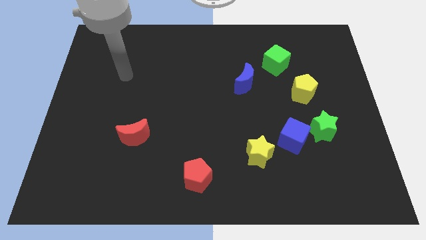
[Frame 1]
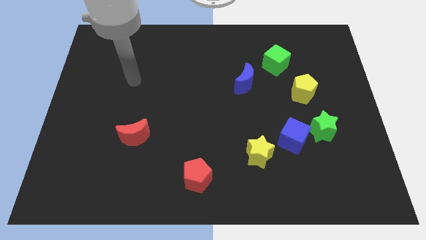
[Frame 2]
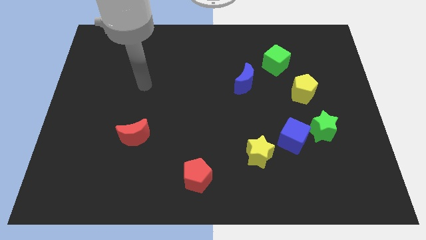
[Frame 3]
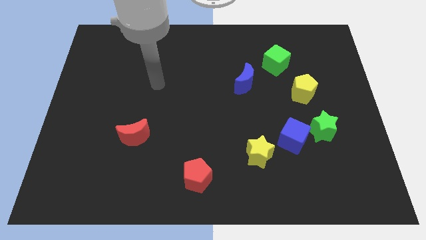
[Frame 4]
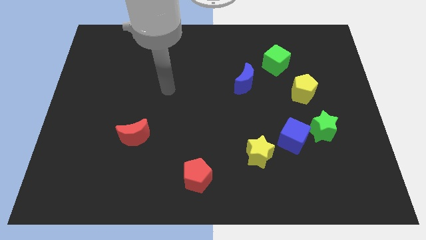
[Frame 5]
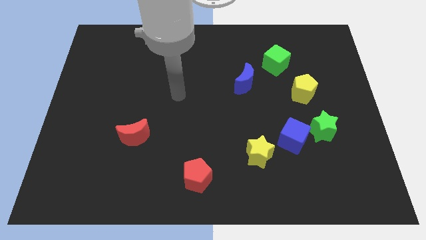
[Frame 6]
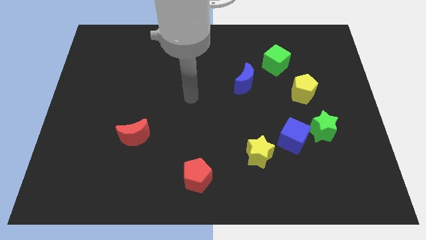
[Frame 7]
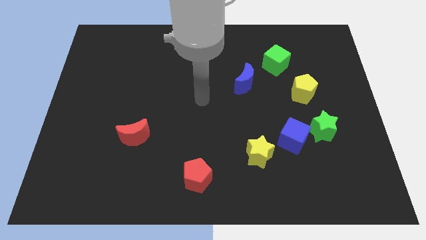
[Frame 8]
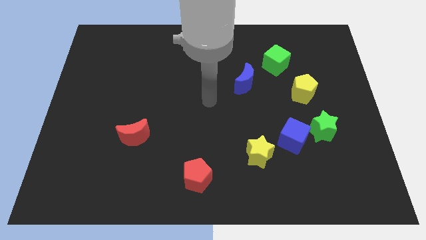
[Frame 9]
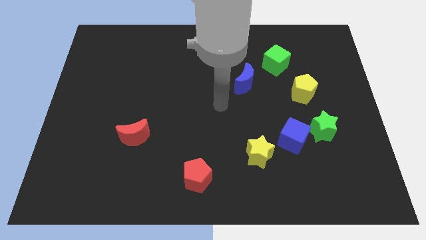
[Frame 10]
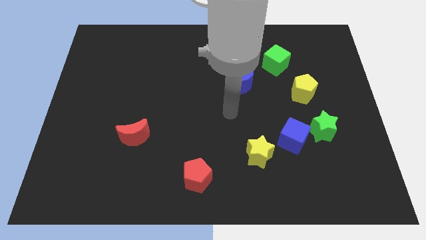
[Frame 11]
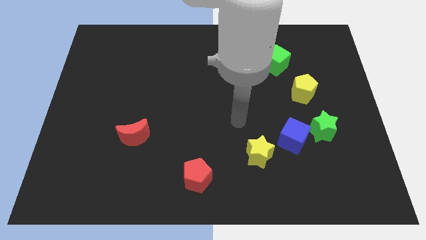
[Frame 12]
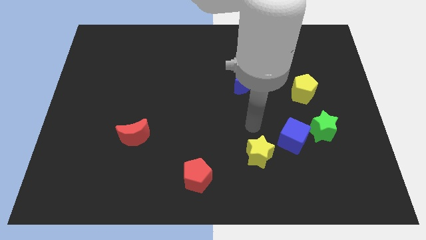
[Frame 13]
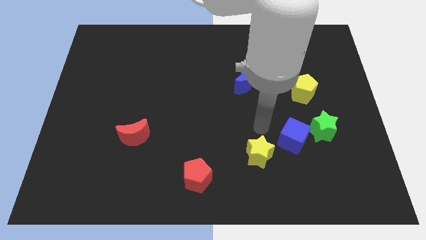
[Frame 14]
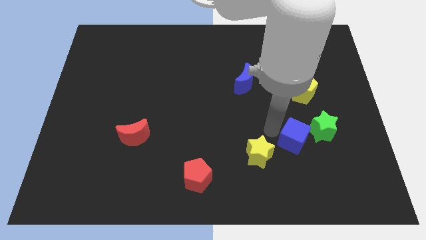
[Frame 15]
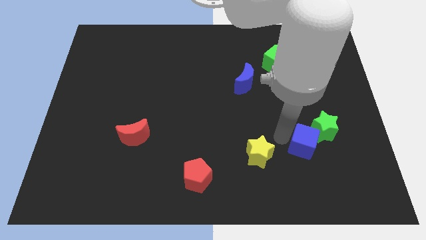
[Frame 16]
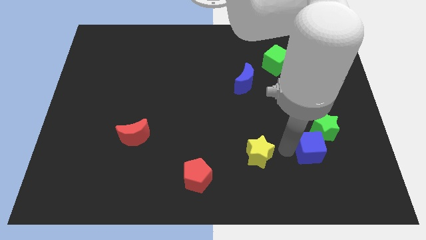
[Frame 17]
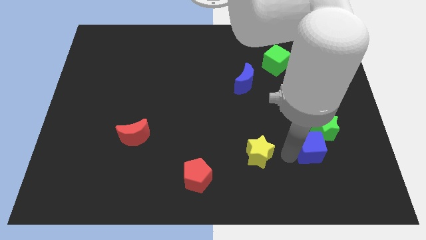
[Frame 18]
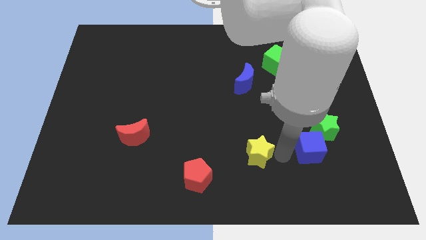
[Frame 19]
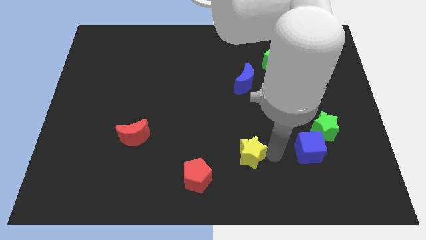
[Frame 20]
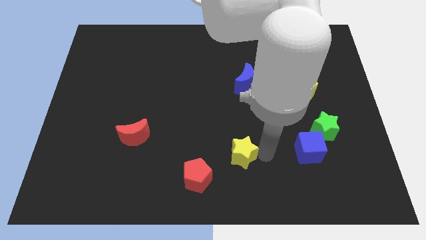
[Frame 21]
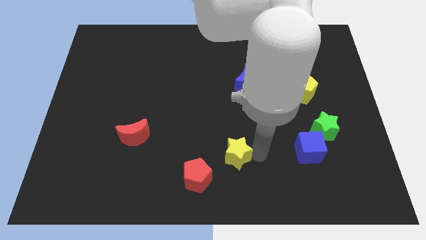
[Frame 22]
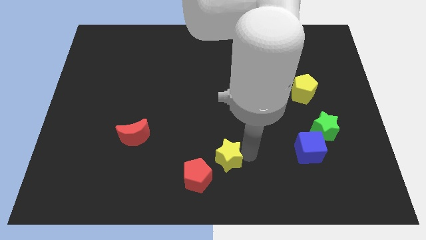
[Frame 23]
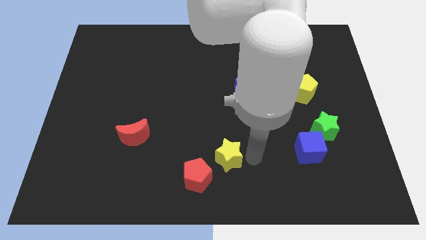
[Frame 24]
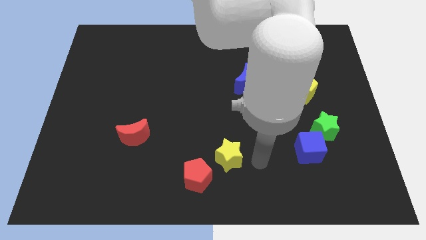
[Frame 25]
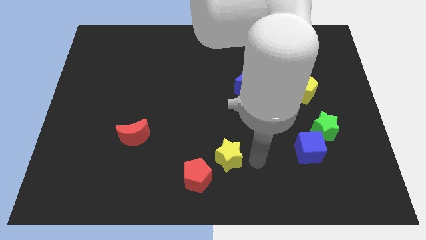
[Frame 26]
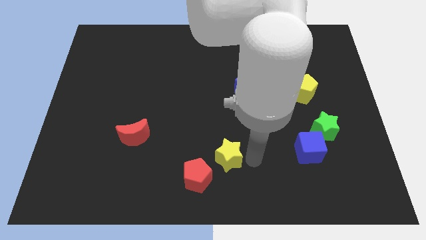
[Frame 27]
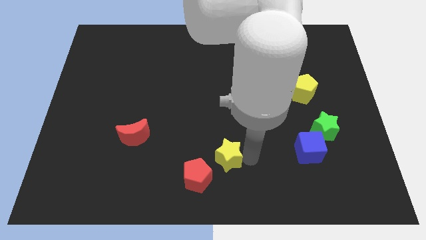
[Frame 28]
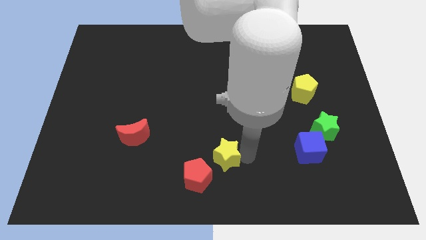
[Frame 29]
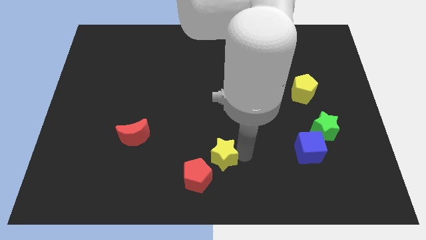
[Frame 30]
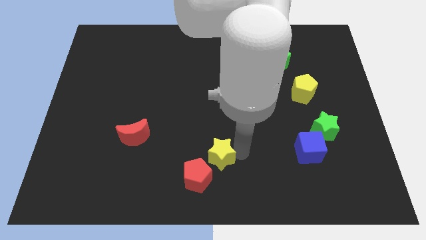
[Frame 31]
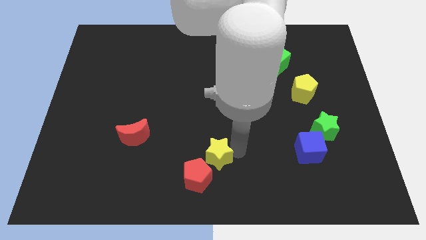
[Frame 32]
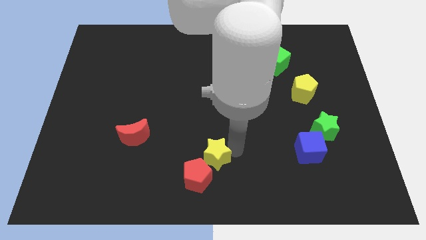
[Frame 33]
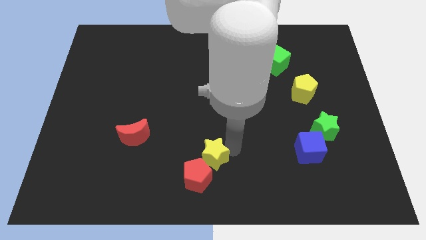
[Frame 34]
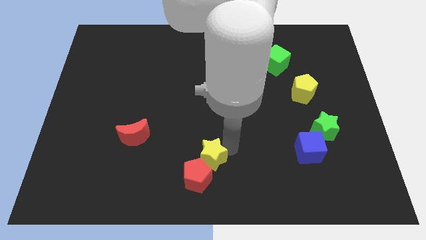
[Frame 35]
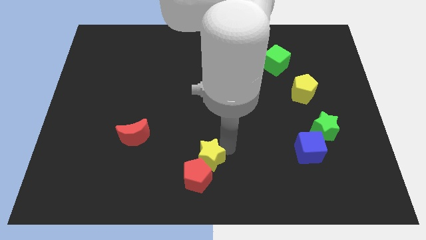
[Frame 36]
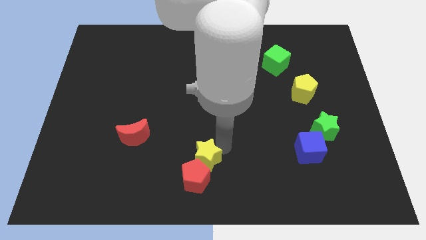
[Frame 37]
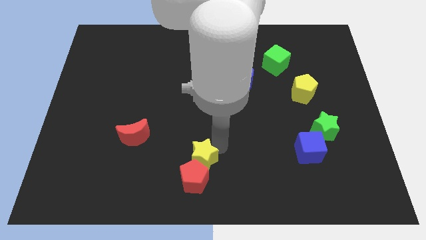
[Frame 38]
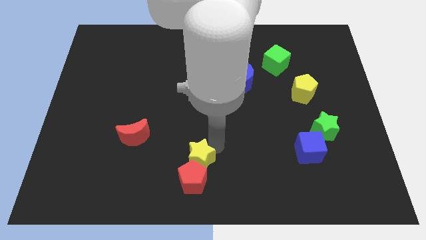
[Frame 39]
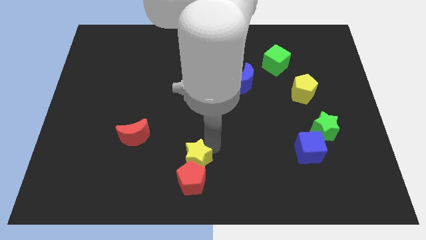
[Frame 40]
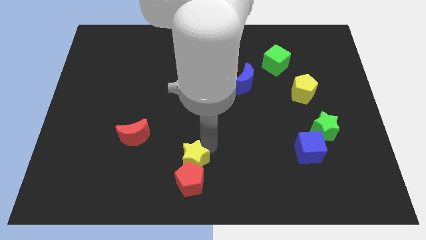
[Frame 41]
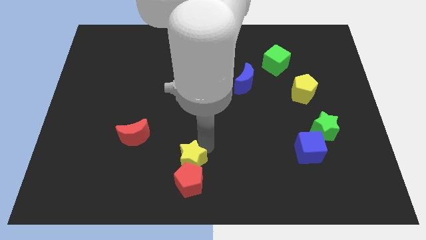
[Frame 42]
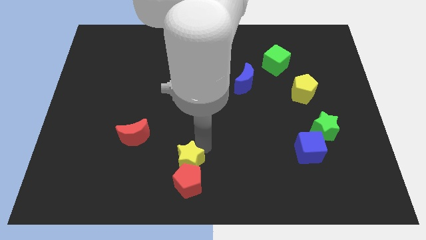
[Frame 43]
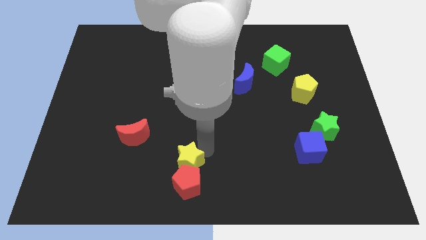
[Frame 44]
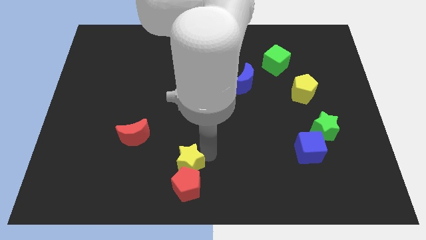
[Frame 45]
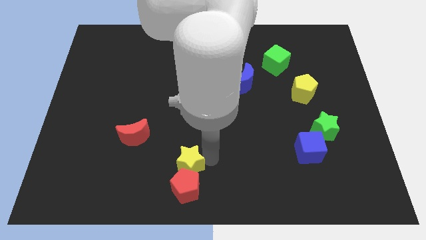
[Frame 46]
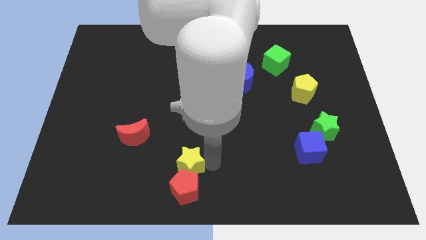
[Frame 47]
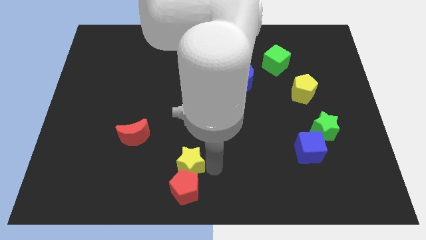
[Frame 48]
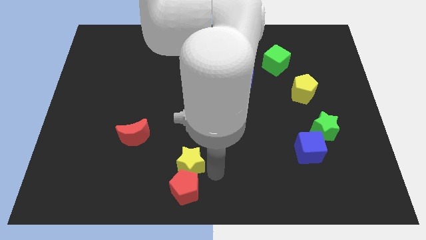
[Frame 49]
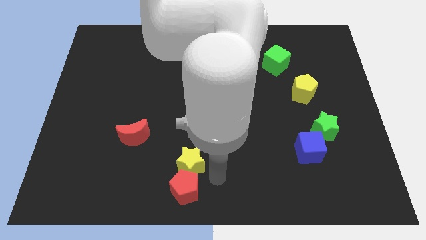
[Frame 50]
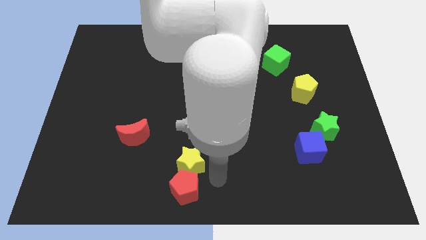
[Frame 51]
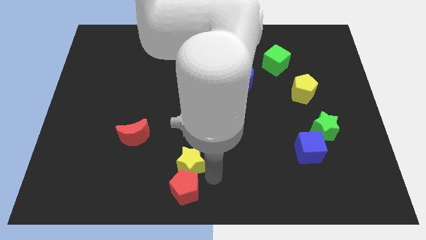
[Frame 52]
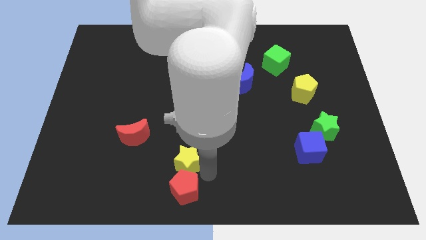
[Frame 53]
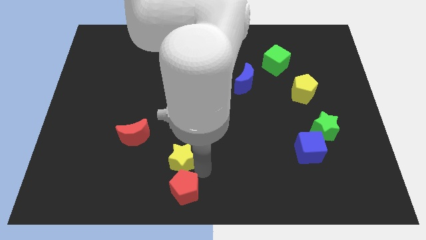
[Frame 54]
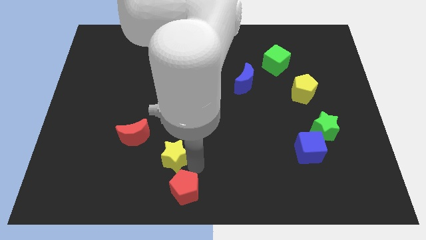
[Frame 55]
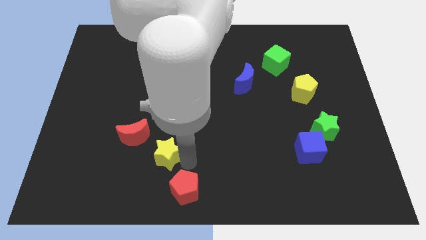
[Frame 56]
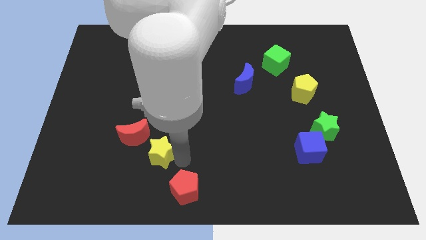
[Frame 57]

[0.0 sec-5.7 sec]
slide the yellow star to the left

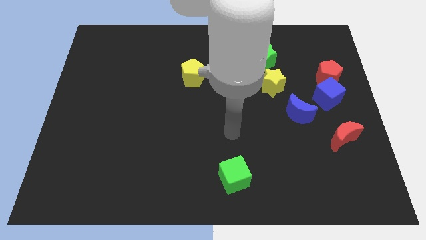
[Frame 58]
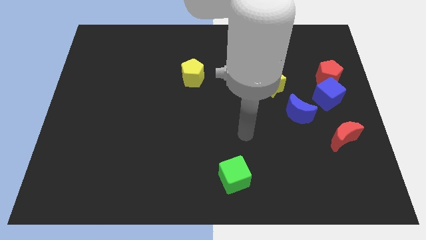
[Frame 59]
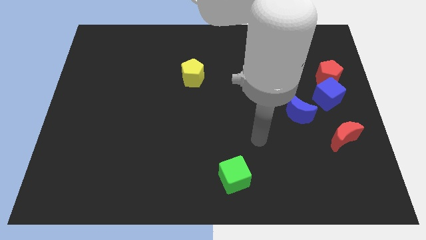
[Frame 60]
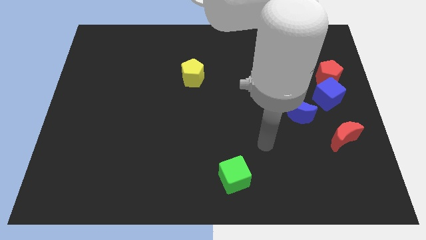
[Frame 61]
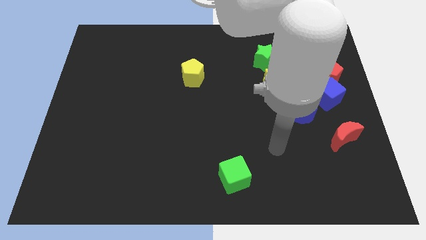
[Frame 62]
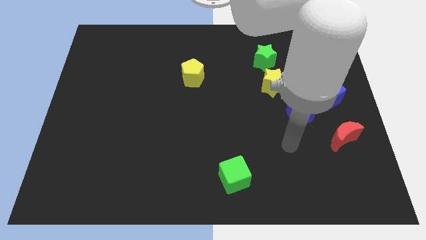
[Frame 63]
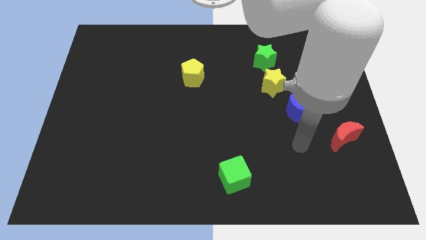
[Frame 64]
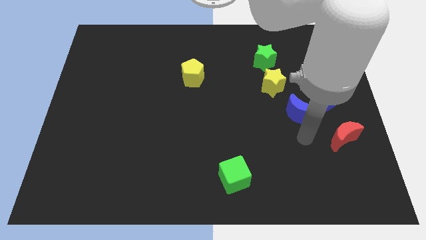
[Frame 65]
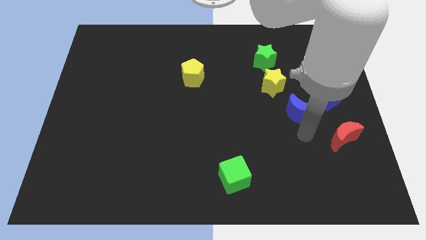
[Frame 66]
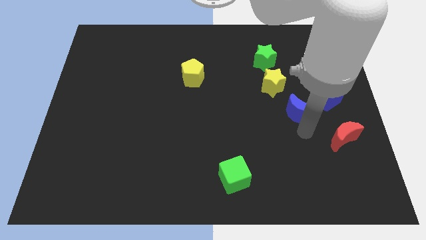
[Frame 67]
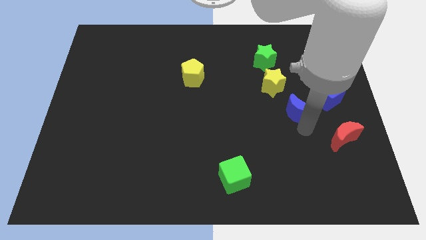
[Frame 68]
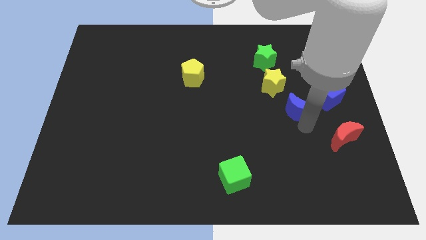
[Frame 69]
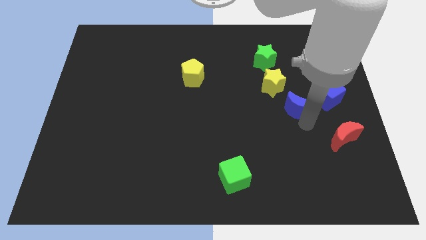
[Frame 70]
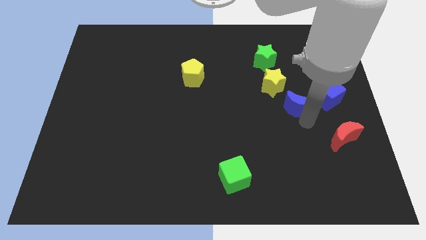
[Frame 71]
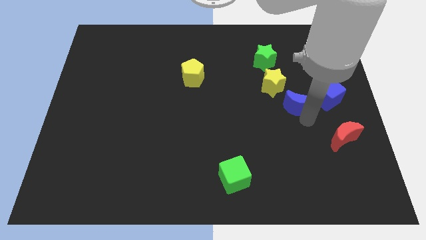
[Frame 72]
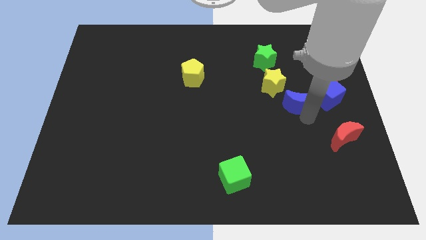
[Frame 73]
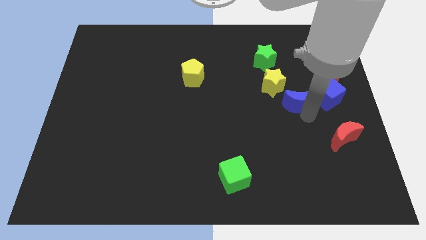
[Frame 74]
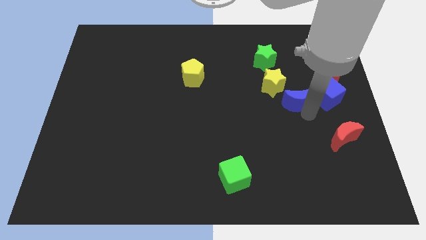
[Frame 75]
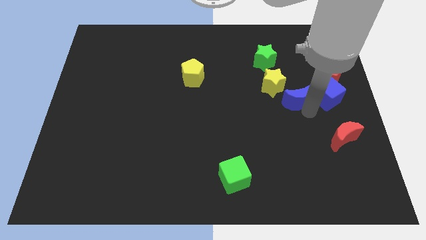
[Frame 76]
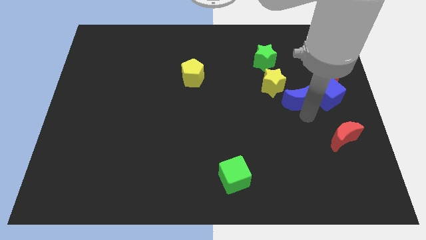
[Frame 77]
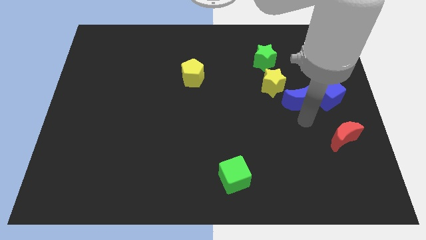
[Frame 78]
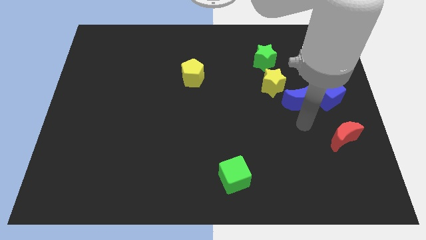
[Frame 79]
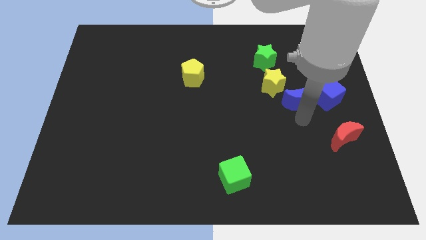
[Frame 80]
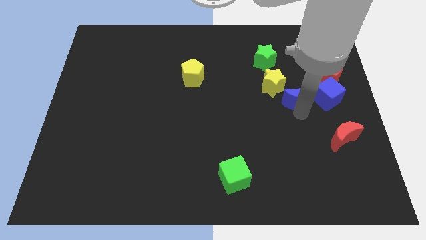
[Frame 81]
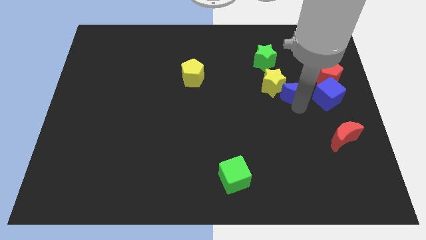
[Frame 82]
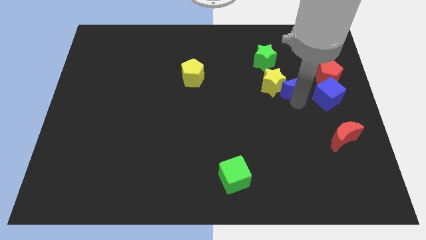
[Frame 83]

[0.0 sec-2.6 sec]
move the blue moon slightly upwards
